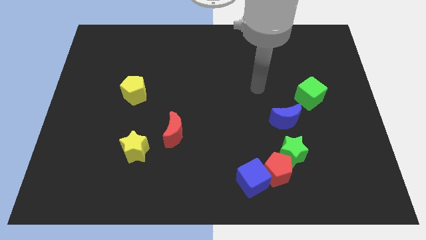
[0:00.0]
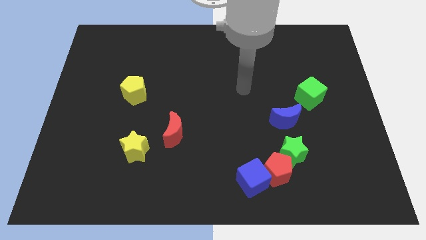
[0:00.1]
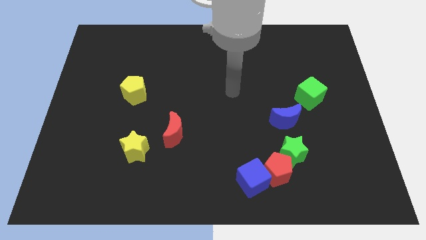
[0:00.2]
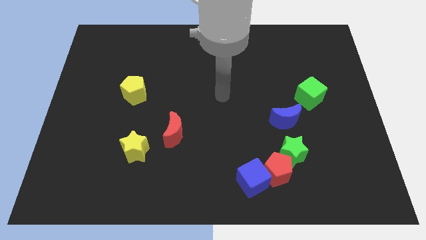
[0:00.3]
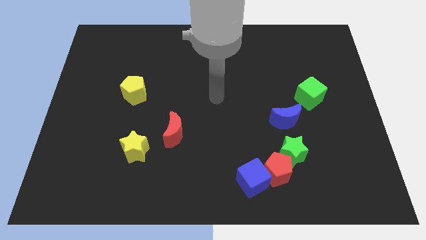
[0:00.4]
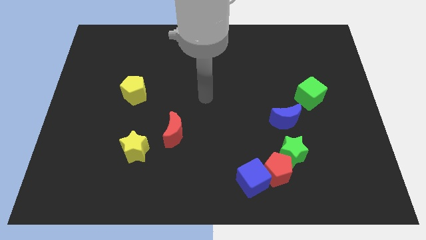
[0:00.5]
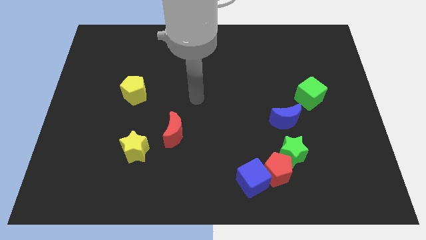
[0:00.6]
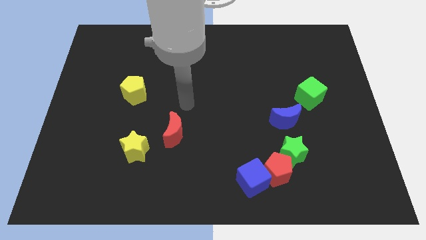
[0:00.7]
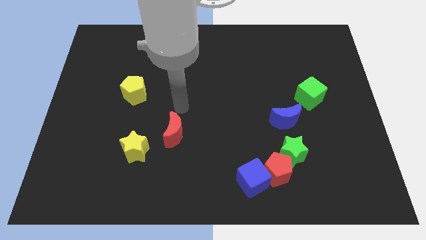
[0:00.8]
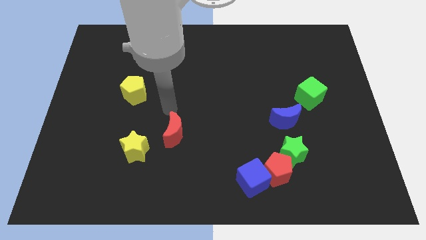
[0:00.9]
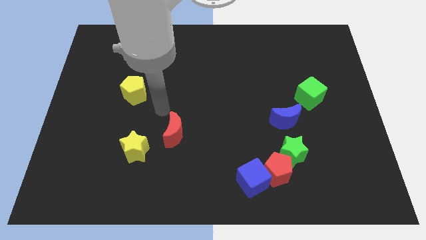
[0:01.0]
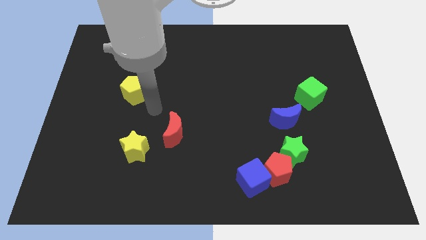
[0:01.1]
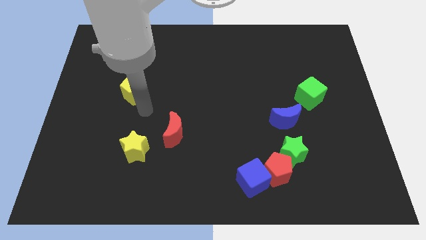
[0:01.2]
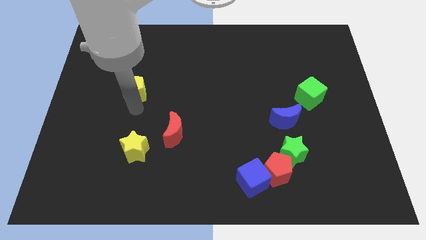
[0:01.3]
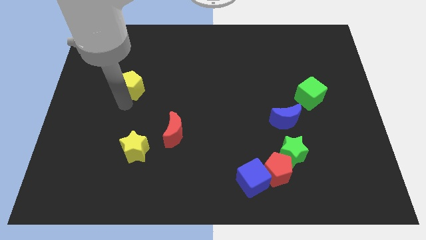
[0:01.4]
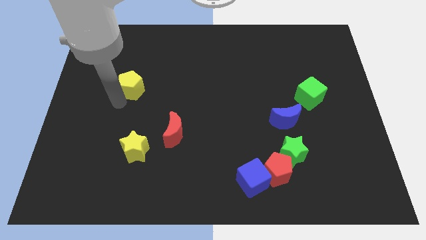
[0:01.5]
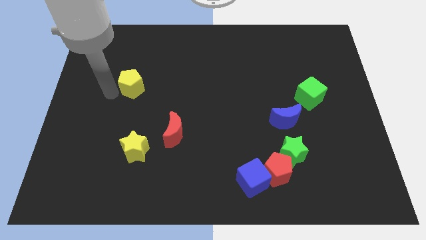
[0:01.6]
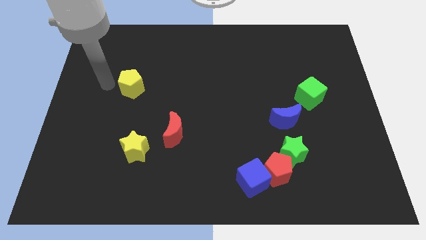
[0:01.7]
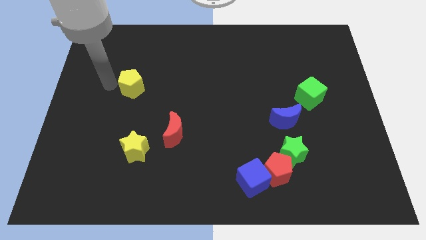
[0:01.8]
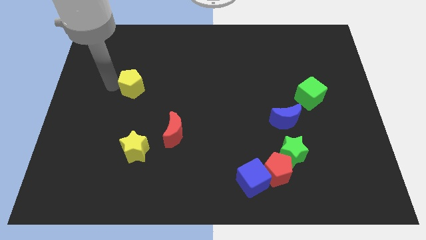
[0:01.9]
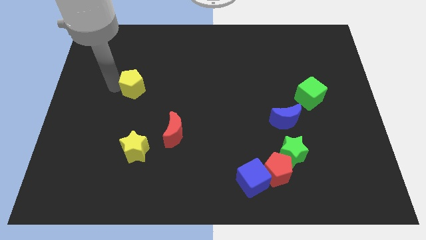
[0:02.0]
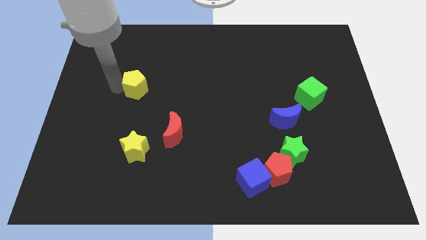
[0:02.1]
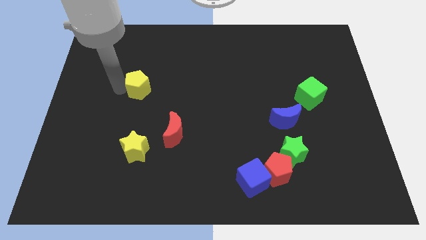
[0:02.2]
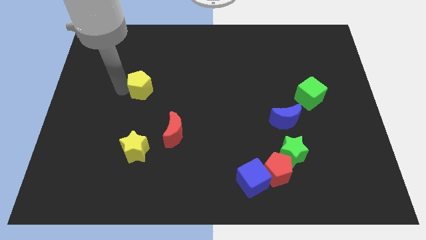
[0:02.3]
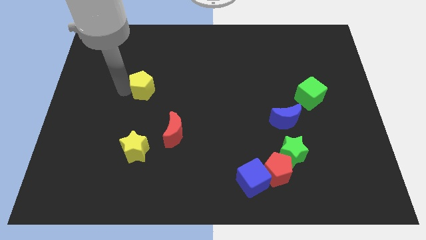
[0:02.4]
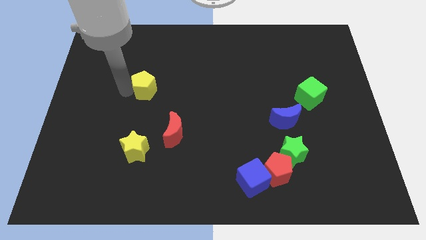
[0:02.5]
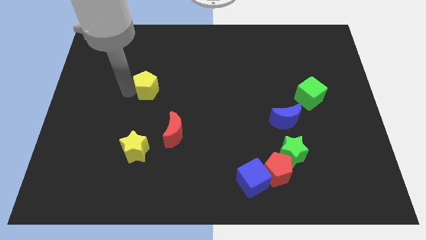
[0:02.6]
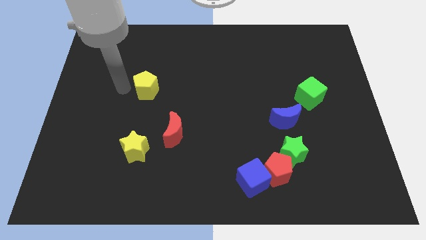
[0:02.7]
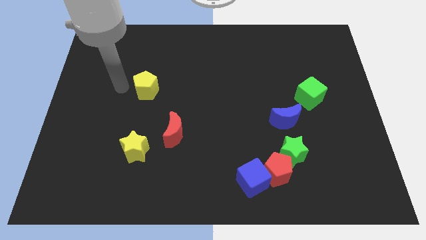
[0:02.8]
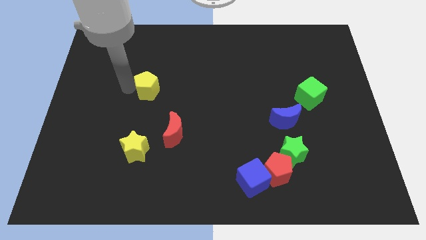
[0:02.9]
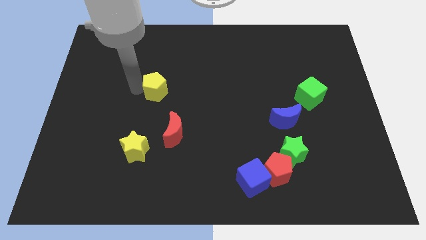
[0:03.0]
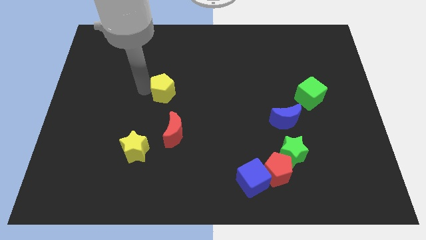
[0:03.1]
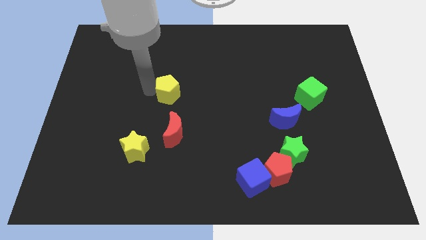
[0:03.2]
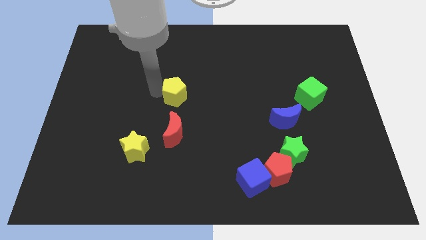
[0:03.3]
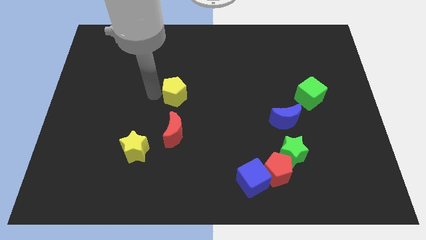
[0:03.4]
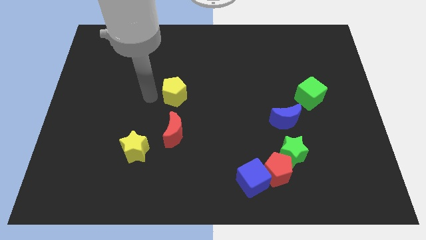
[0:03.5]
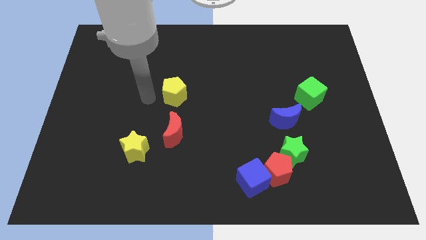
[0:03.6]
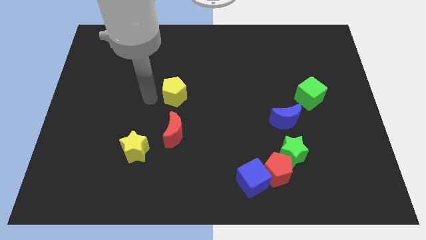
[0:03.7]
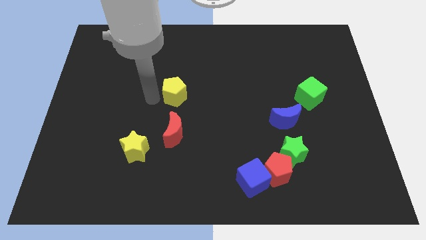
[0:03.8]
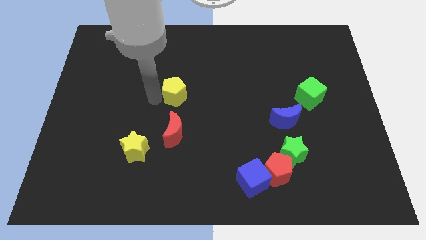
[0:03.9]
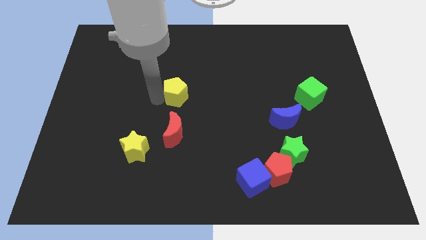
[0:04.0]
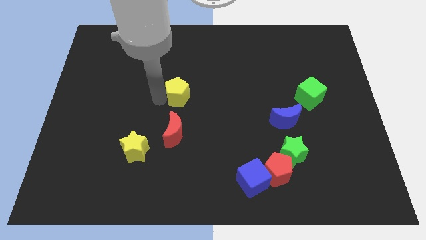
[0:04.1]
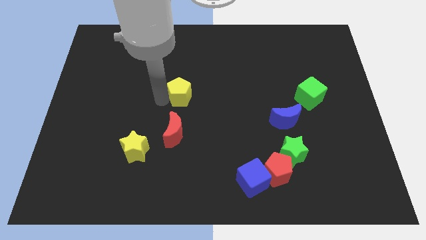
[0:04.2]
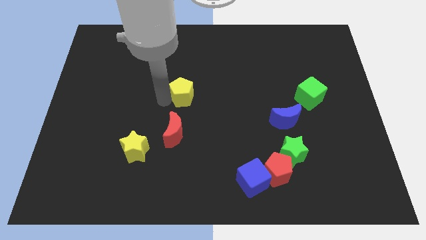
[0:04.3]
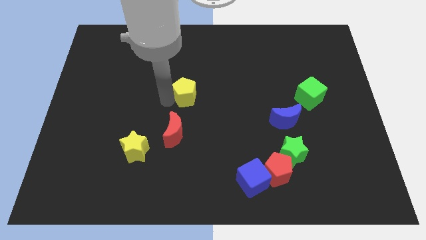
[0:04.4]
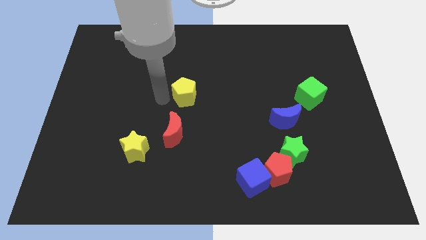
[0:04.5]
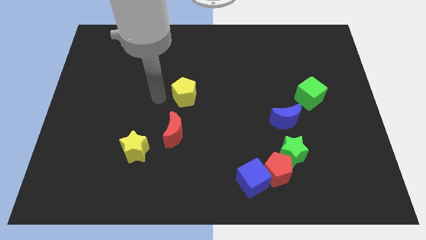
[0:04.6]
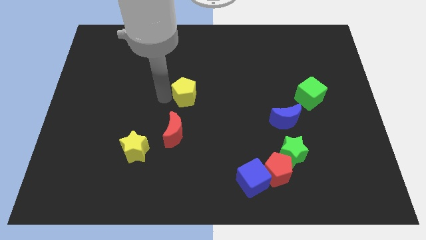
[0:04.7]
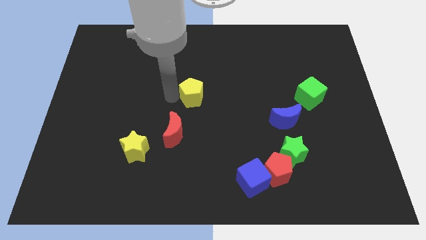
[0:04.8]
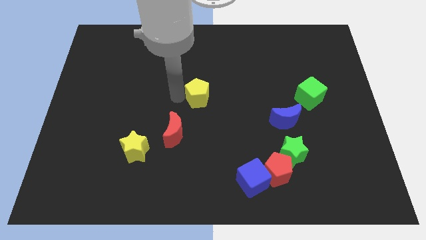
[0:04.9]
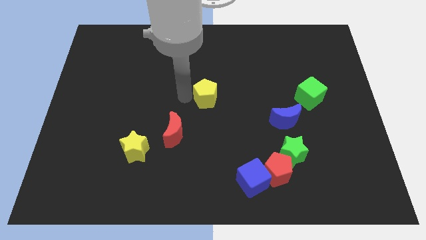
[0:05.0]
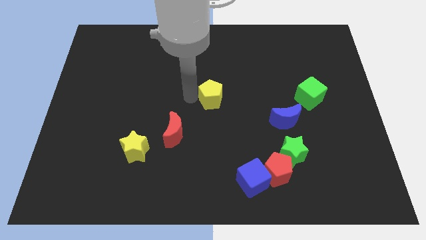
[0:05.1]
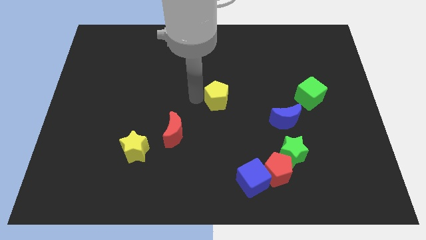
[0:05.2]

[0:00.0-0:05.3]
move the yellow pentagon to the right

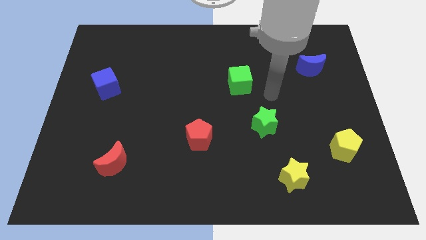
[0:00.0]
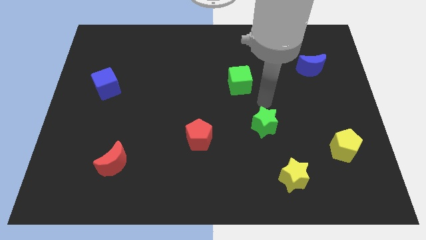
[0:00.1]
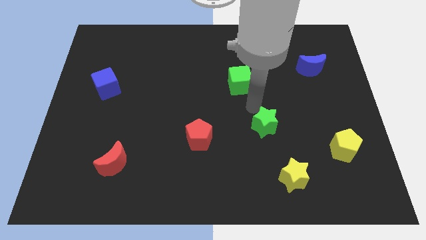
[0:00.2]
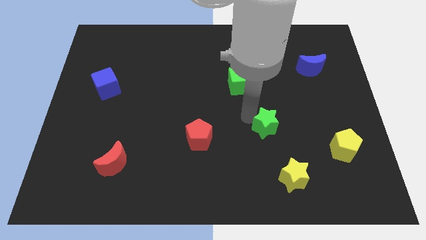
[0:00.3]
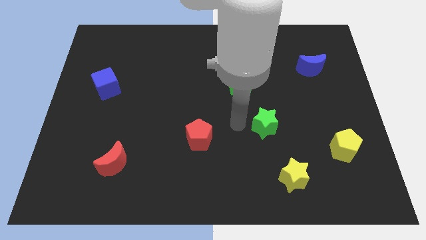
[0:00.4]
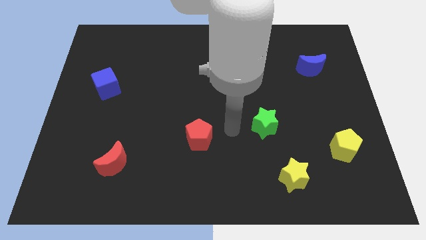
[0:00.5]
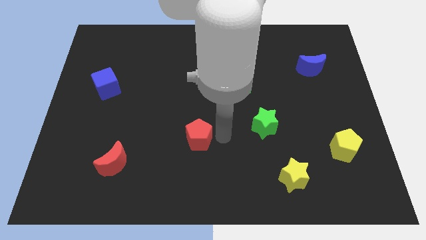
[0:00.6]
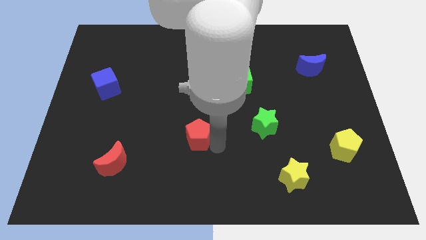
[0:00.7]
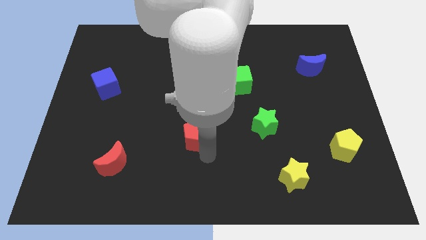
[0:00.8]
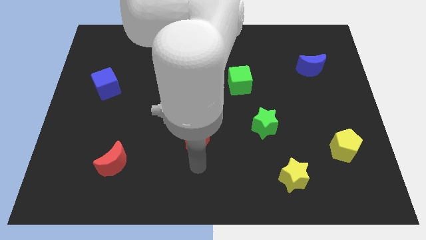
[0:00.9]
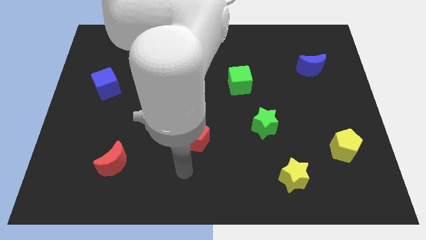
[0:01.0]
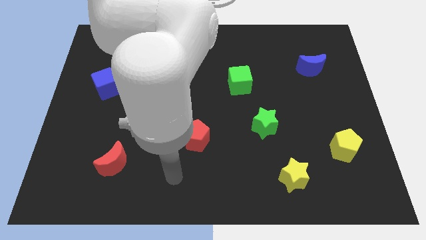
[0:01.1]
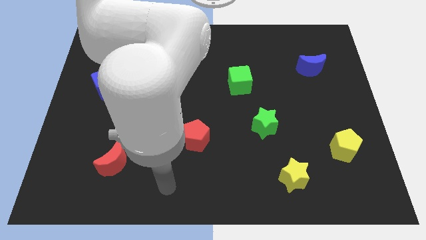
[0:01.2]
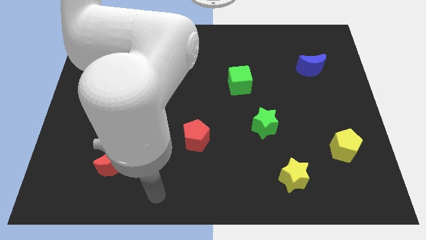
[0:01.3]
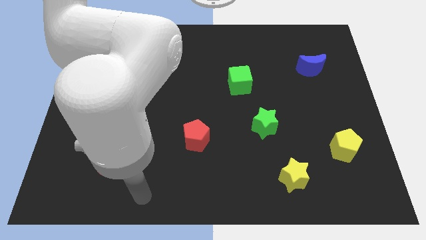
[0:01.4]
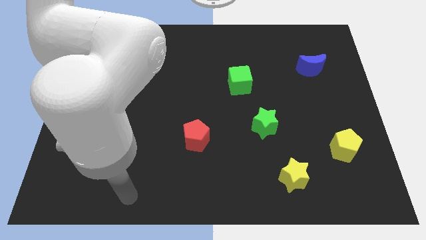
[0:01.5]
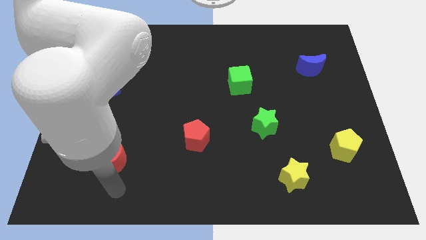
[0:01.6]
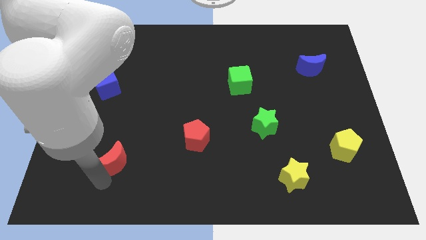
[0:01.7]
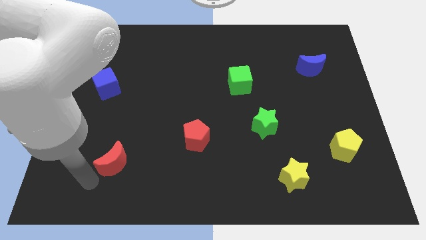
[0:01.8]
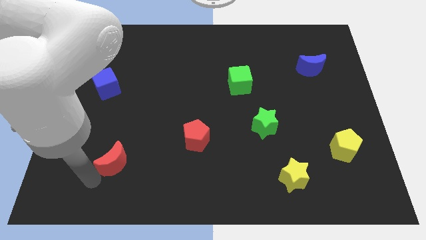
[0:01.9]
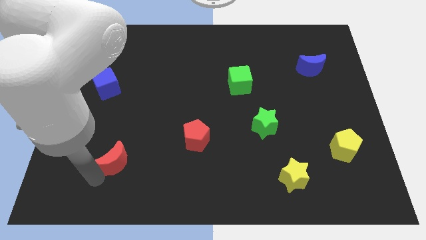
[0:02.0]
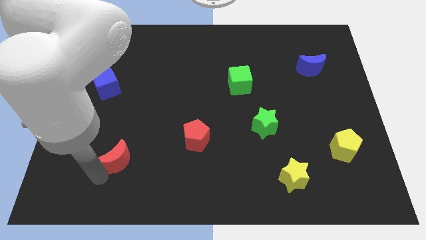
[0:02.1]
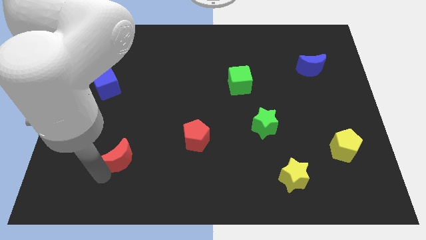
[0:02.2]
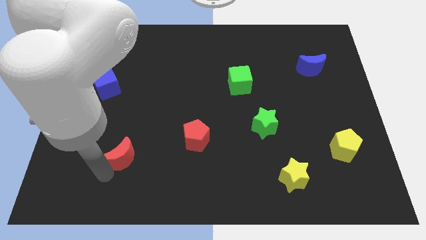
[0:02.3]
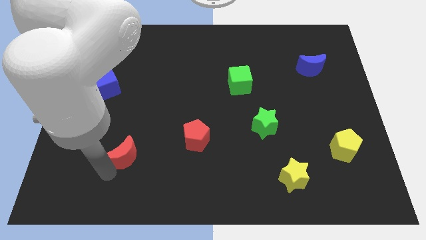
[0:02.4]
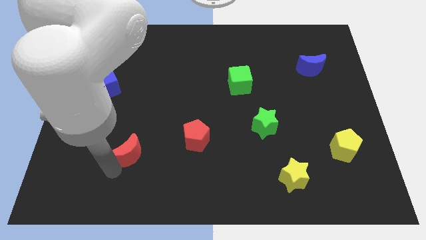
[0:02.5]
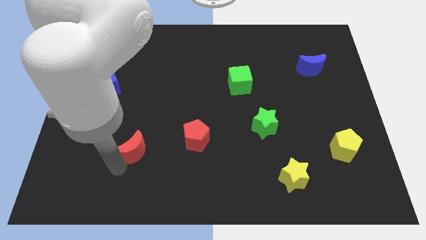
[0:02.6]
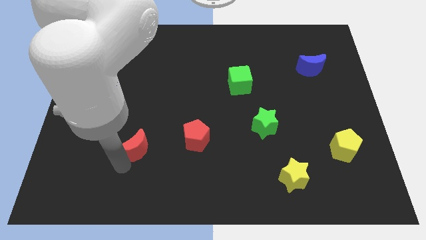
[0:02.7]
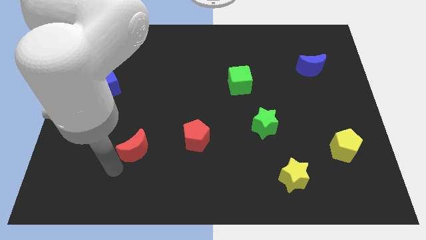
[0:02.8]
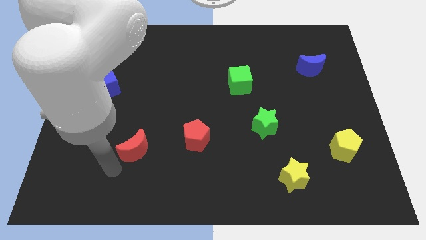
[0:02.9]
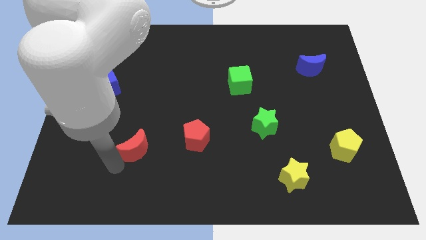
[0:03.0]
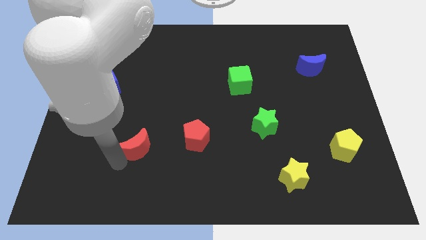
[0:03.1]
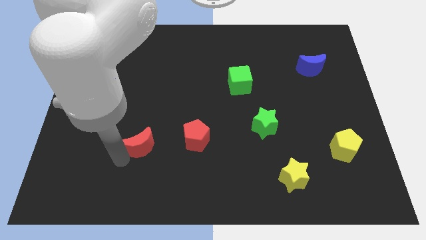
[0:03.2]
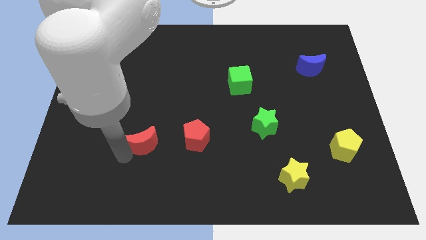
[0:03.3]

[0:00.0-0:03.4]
move the red moon slightly upwards and right diagonally
